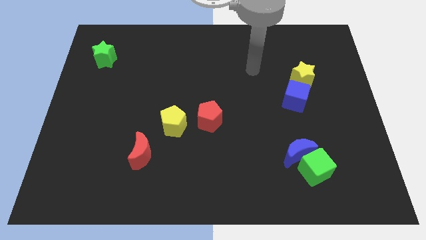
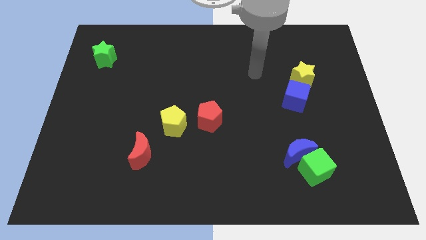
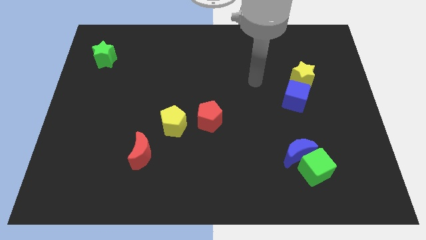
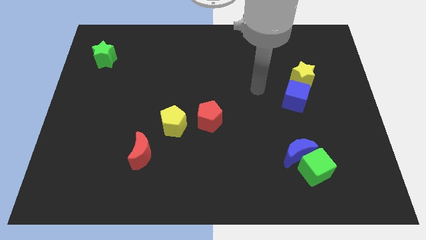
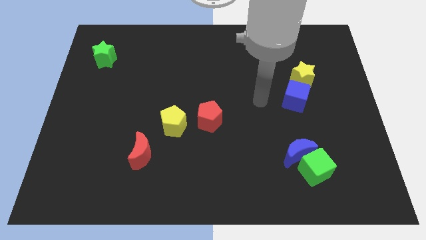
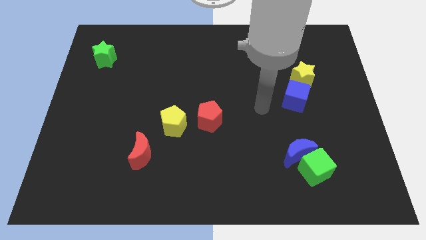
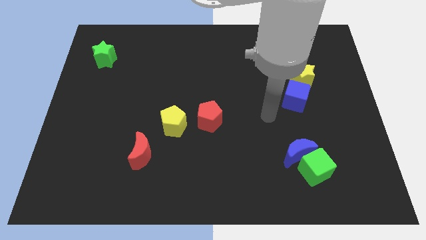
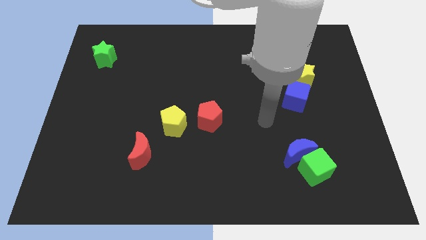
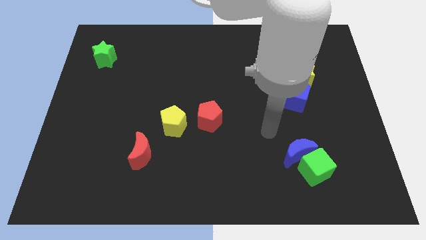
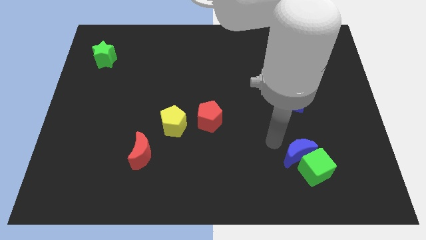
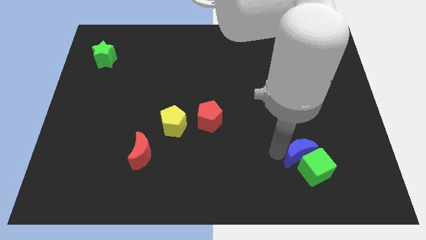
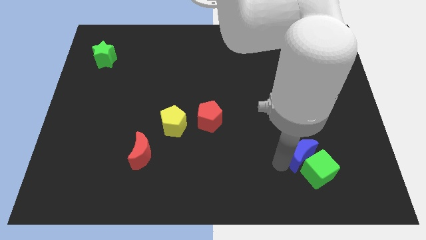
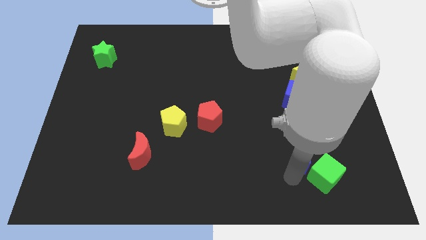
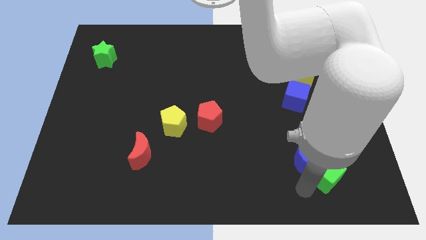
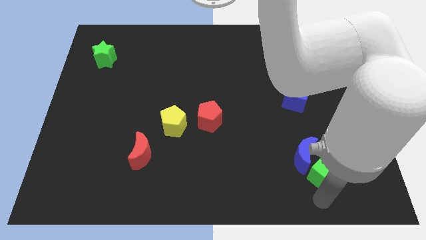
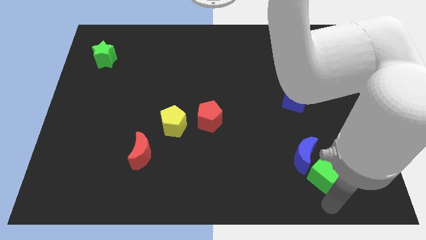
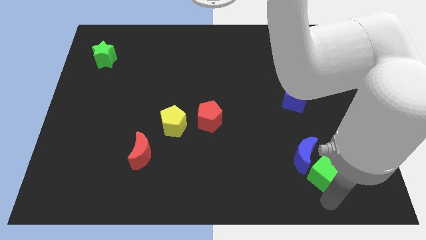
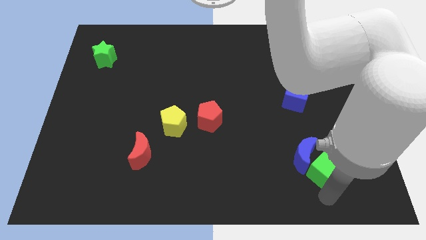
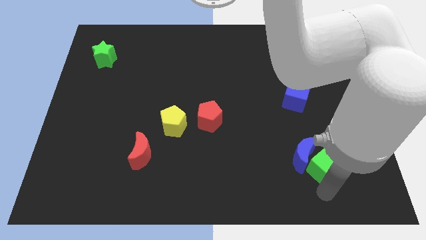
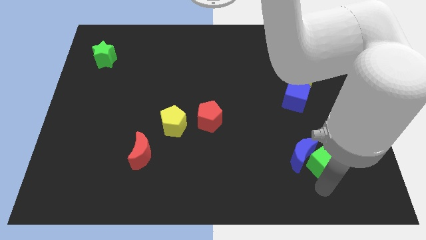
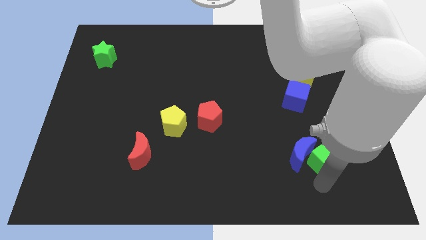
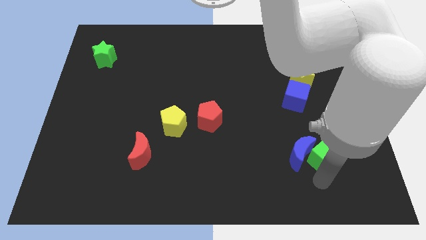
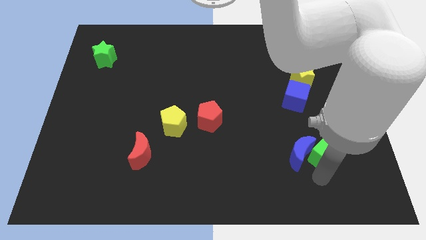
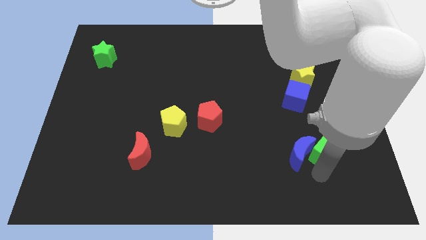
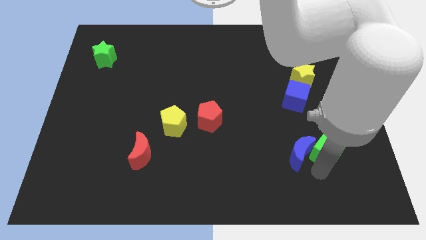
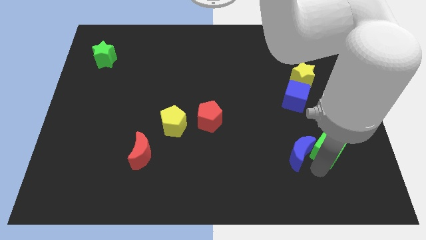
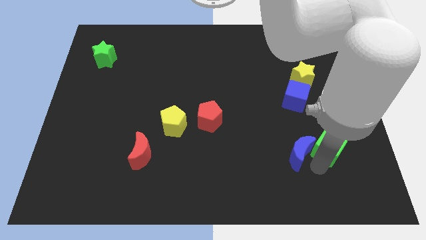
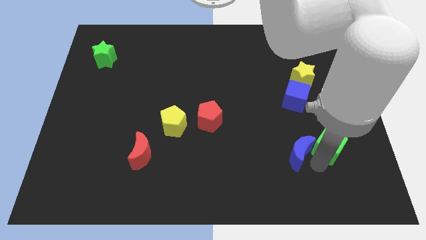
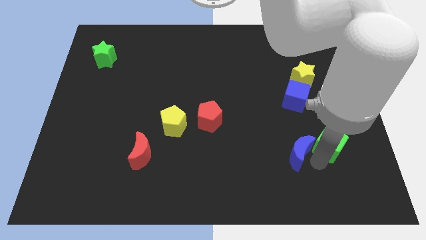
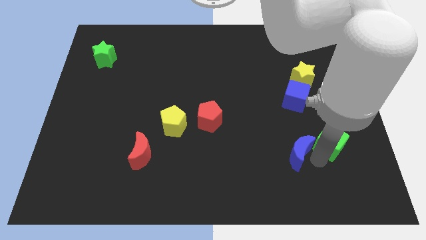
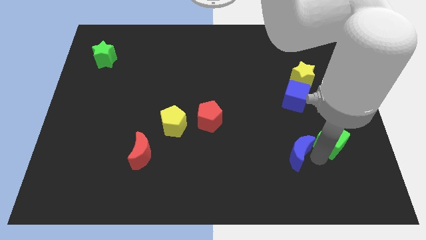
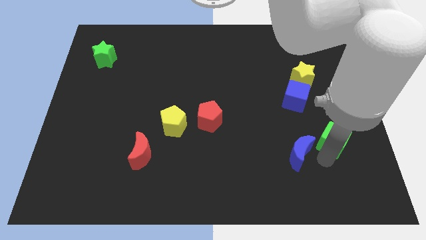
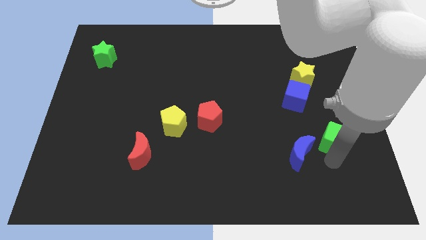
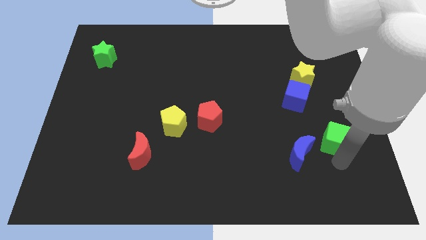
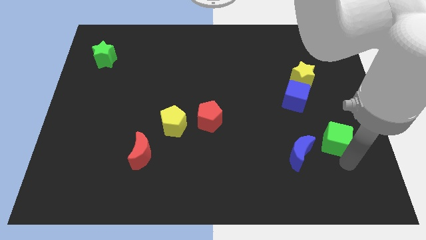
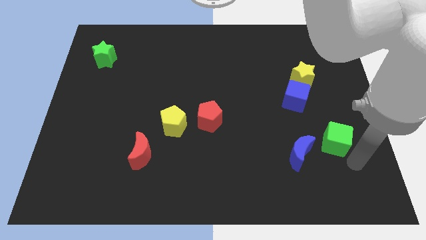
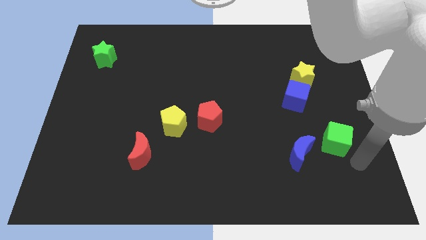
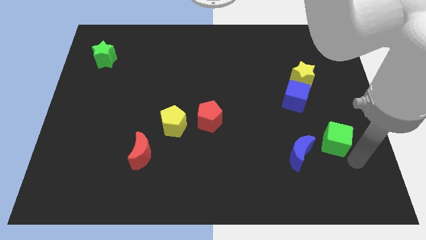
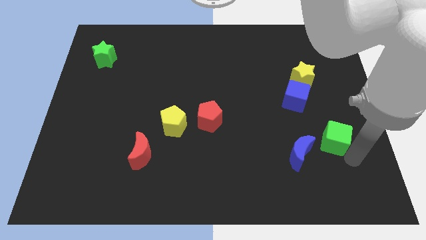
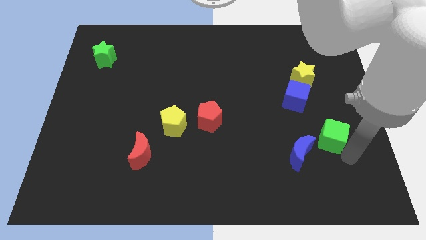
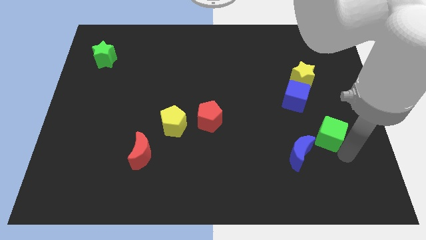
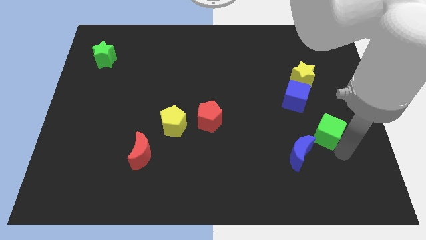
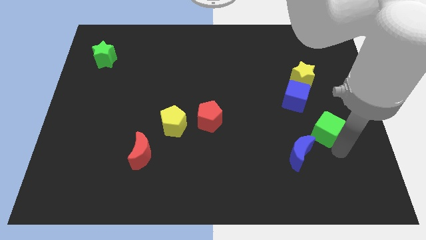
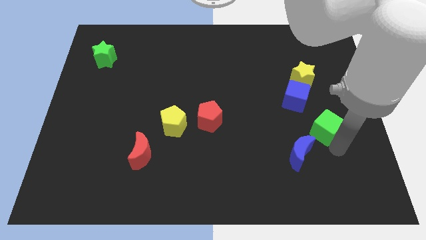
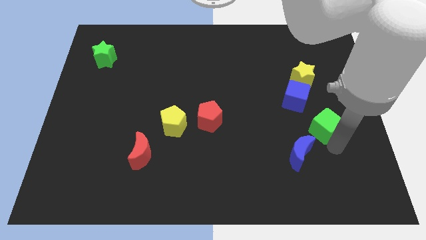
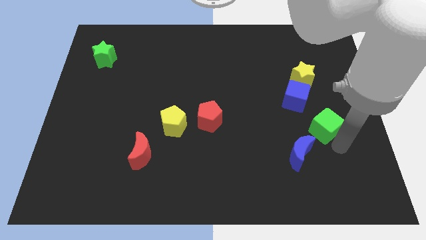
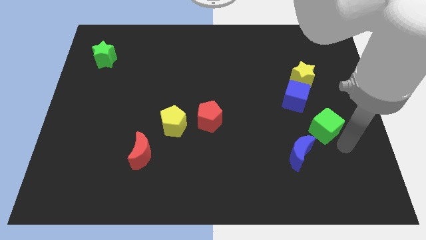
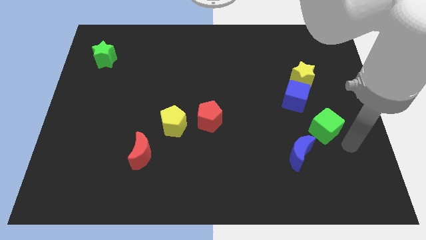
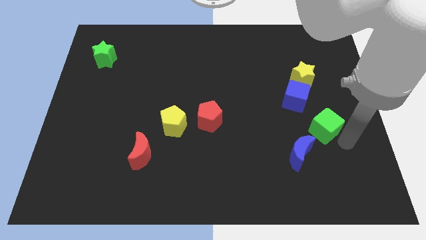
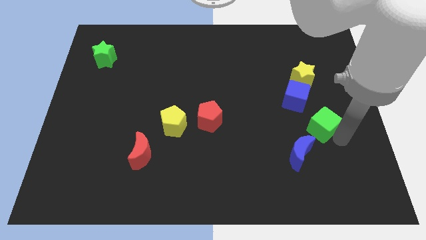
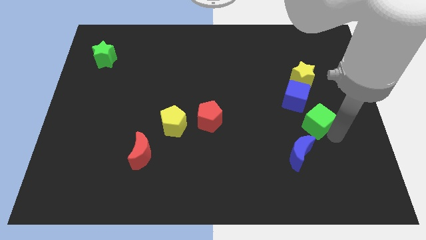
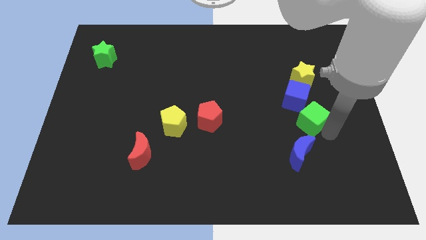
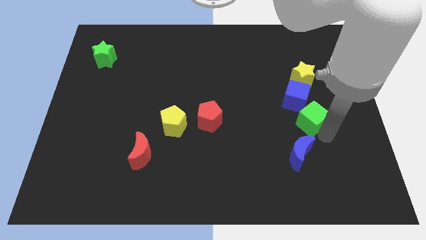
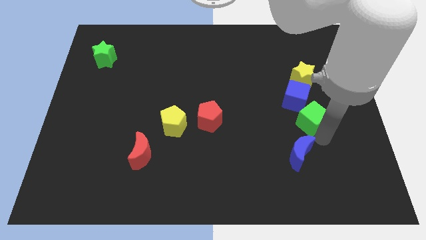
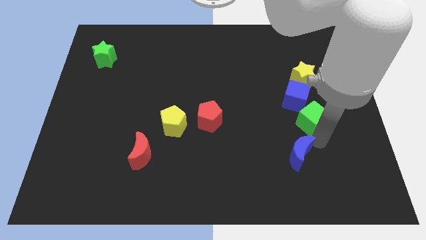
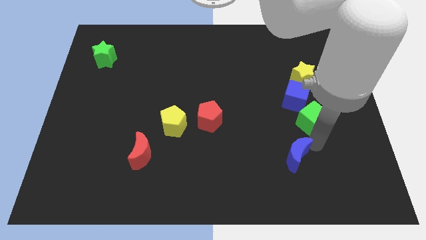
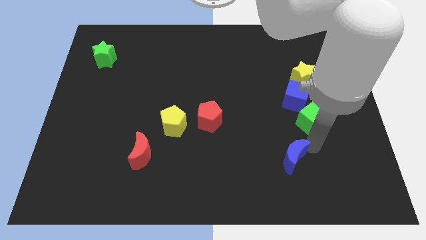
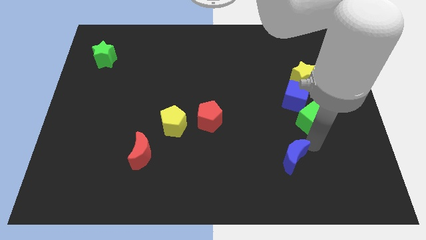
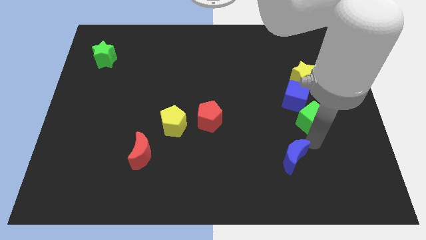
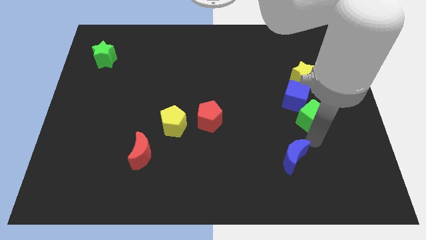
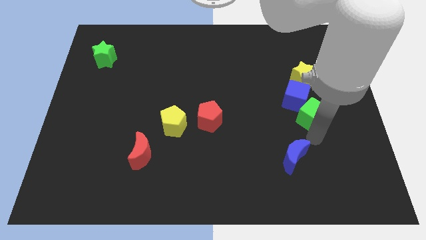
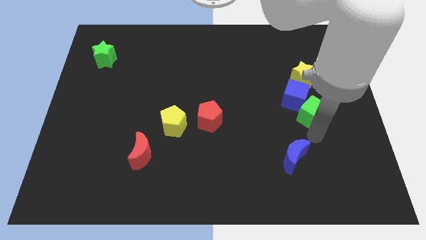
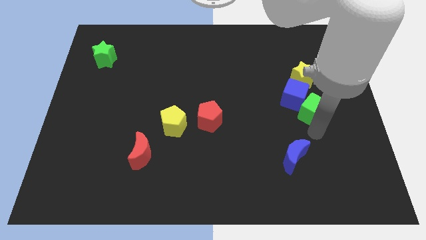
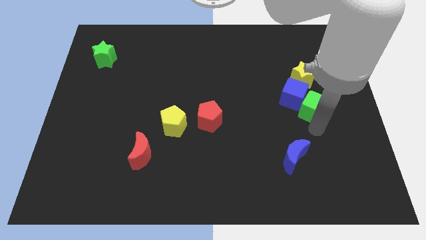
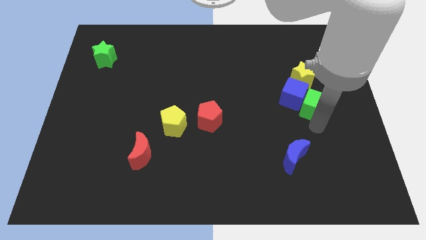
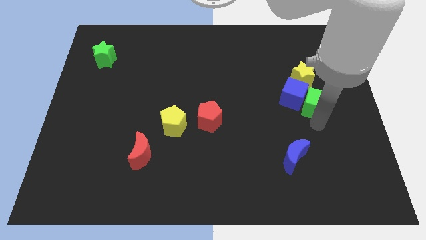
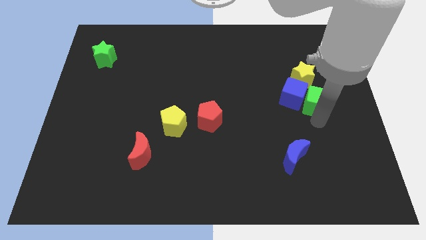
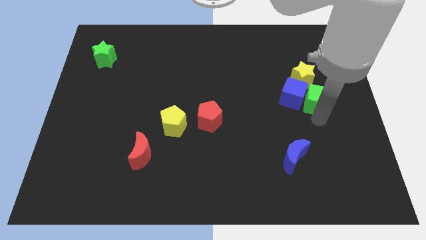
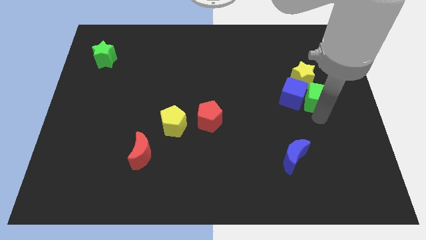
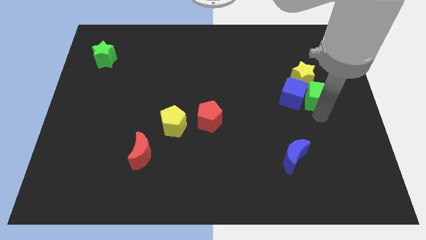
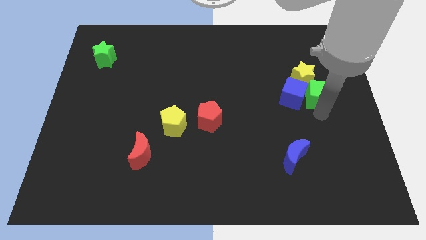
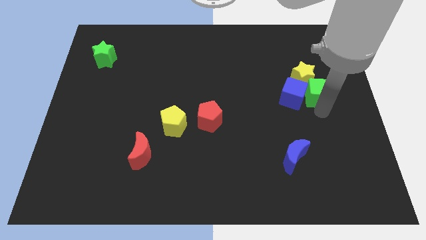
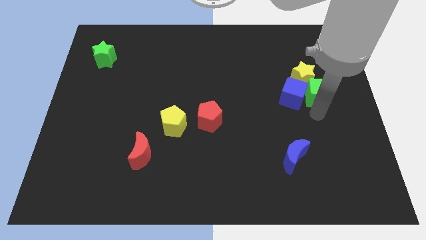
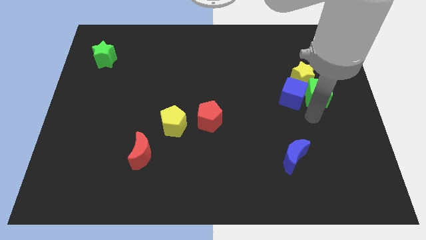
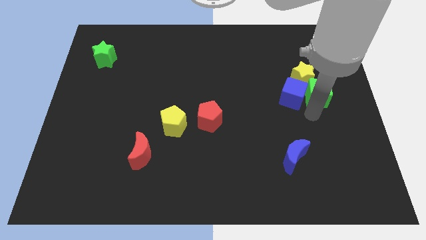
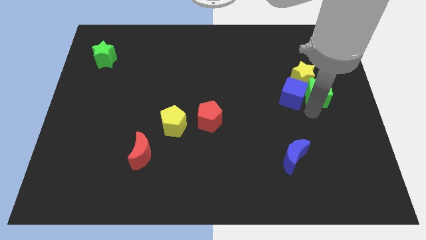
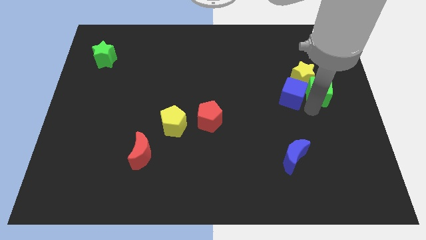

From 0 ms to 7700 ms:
move the green cube upwards

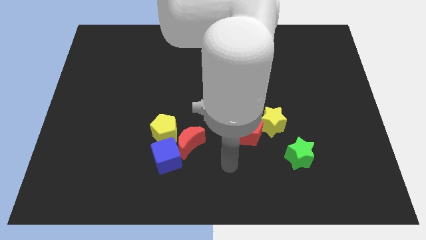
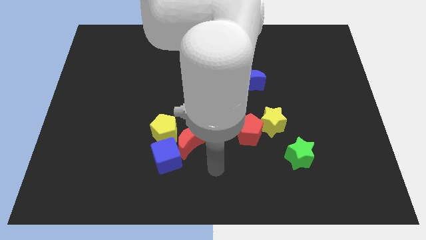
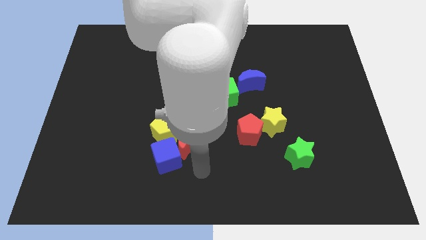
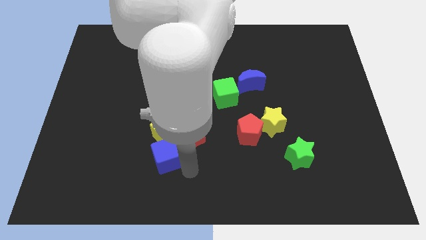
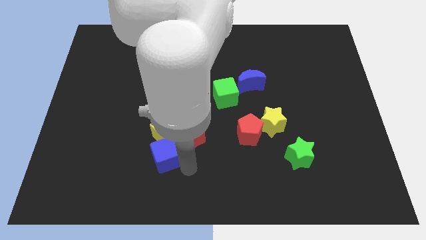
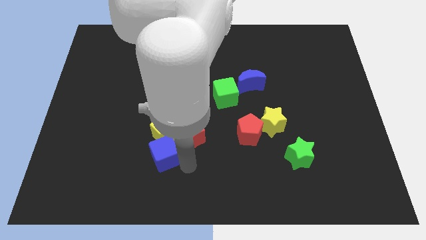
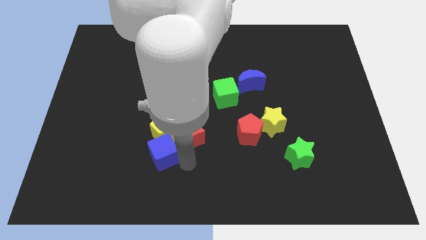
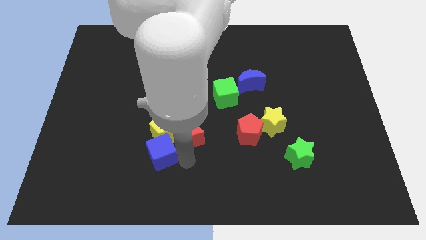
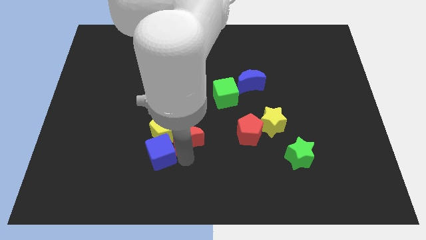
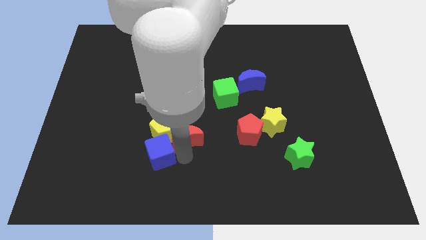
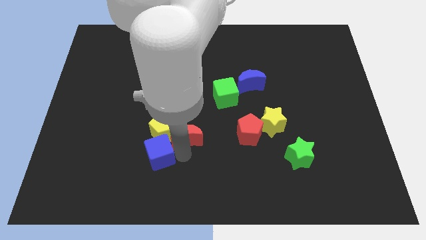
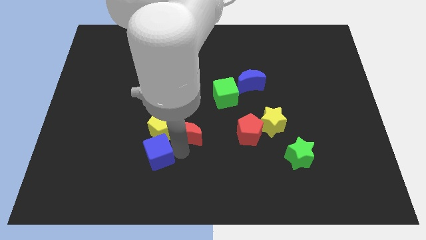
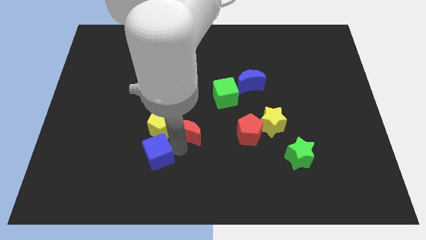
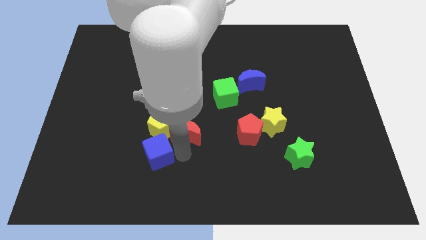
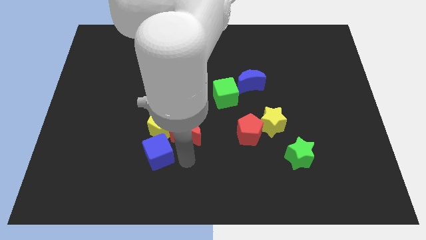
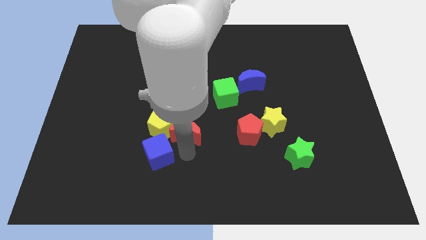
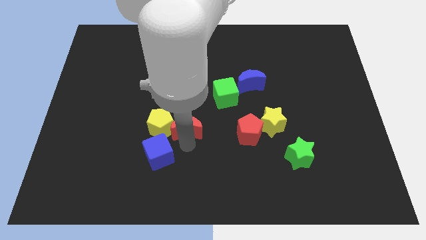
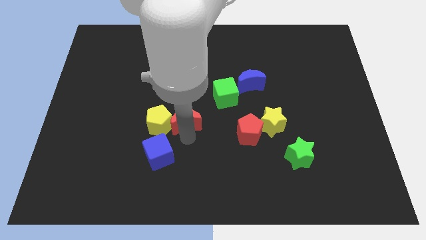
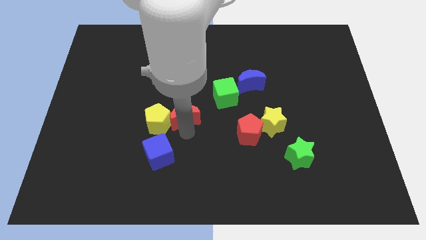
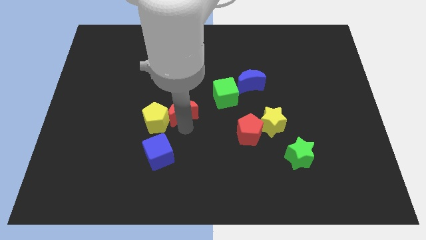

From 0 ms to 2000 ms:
move the red moon a little bit up
